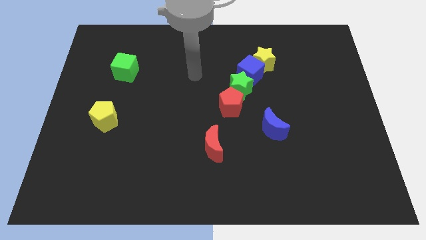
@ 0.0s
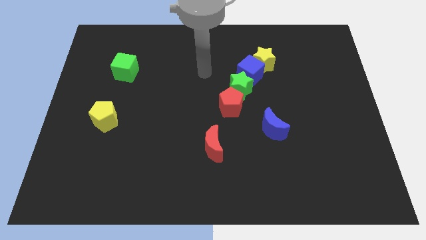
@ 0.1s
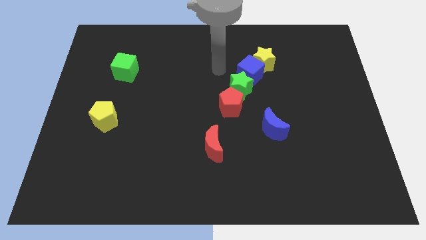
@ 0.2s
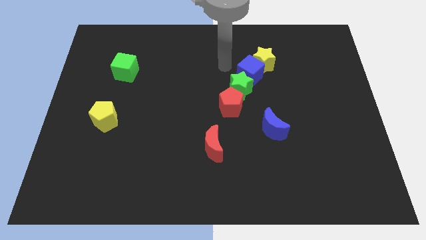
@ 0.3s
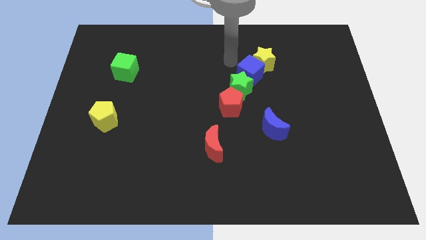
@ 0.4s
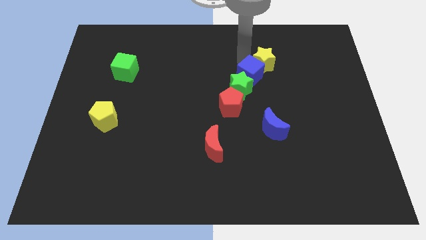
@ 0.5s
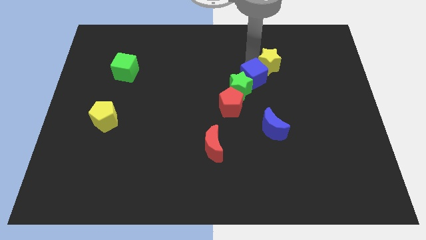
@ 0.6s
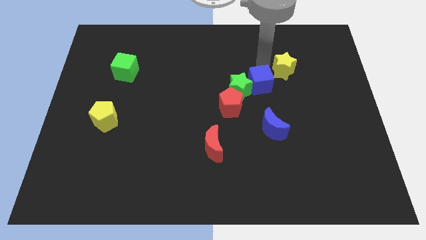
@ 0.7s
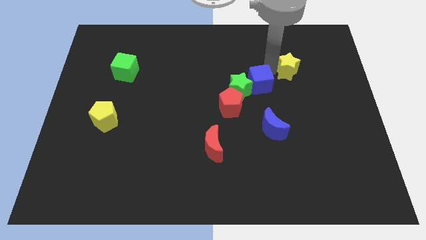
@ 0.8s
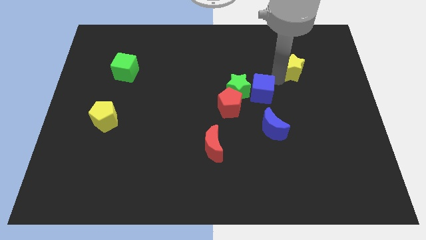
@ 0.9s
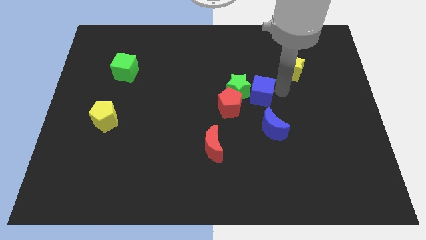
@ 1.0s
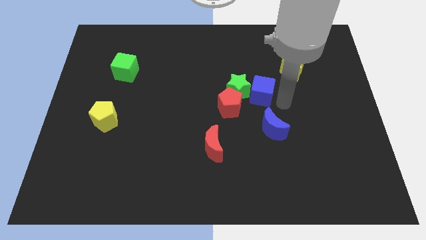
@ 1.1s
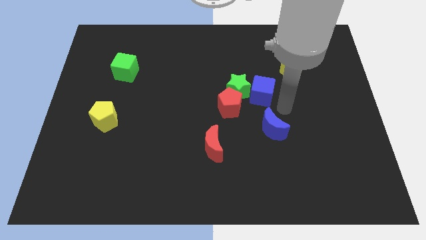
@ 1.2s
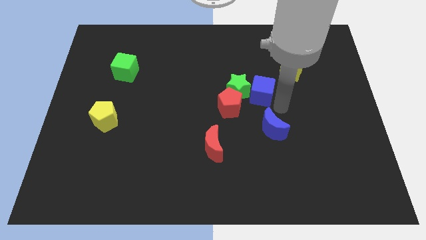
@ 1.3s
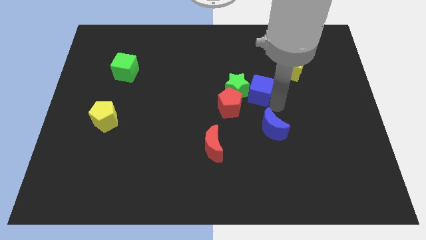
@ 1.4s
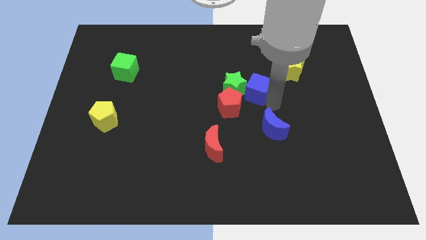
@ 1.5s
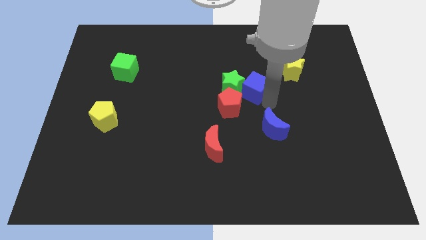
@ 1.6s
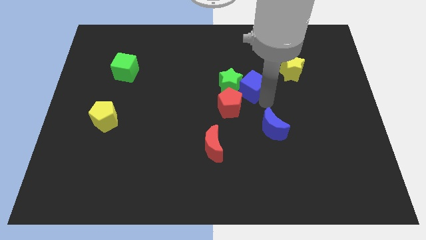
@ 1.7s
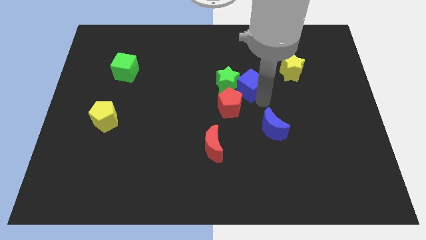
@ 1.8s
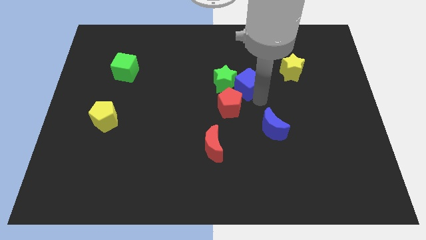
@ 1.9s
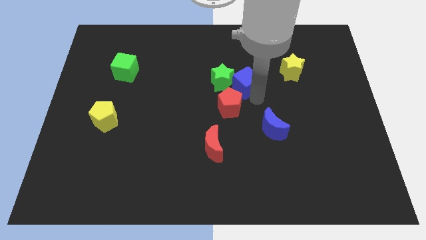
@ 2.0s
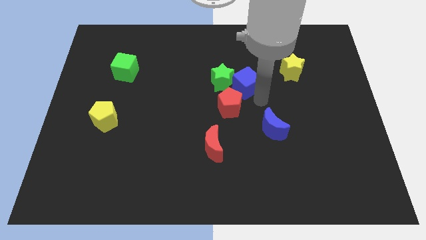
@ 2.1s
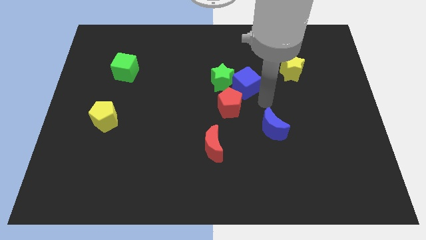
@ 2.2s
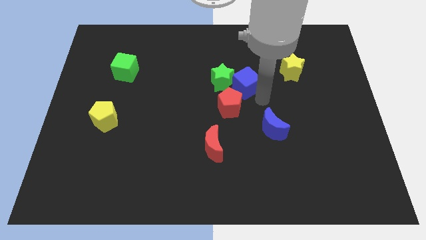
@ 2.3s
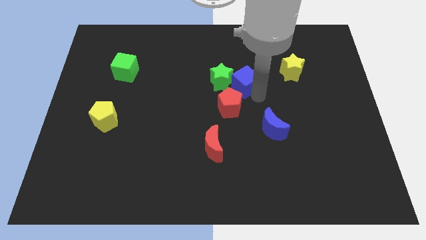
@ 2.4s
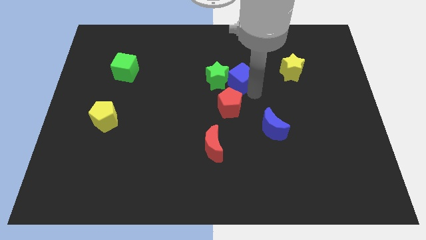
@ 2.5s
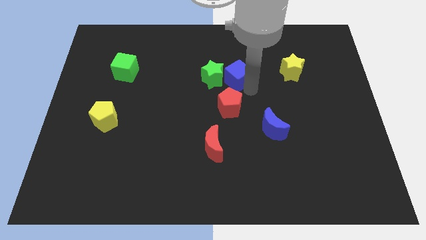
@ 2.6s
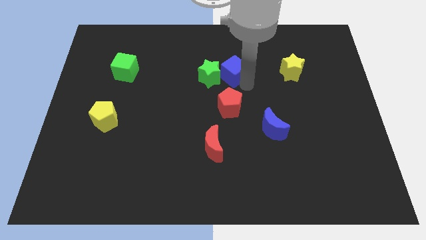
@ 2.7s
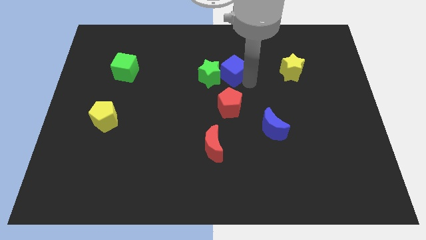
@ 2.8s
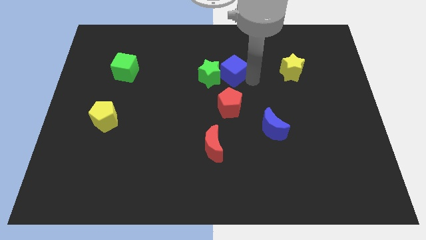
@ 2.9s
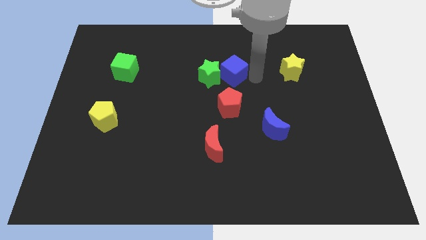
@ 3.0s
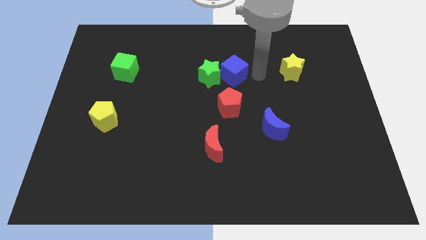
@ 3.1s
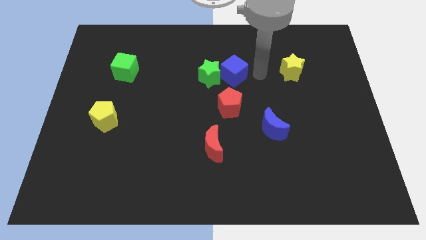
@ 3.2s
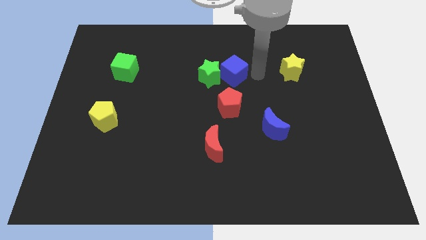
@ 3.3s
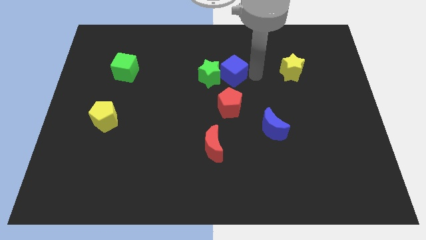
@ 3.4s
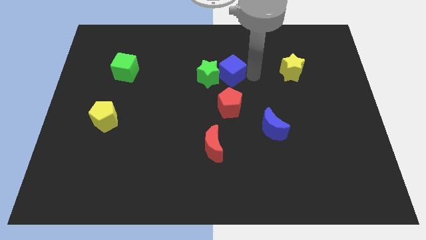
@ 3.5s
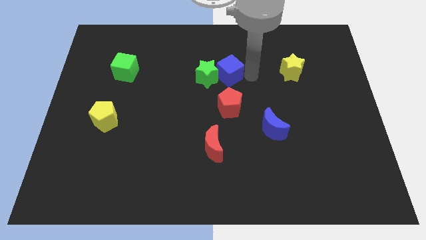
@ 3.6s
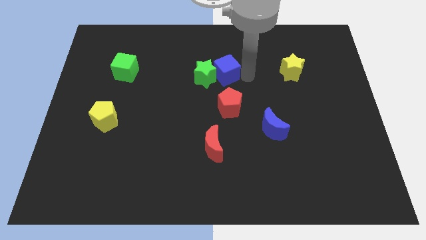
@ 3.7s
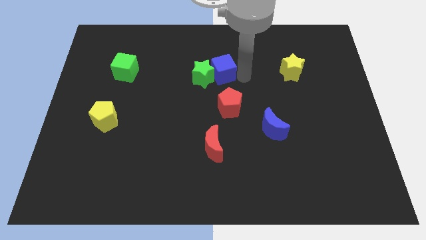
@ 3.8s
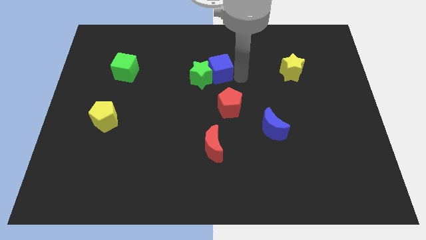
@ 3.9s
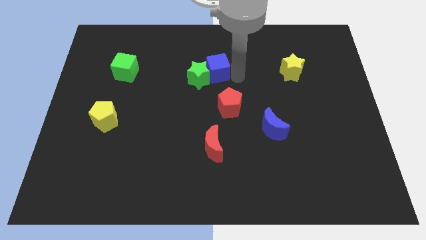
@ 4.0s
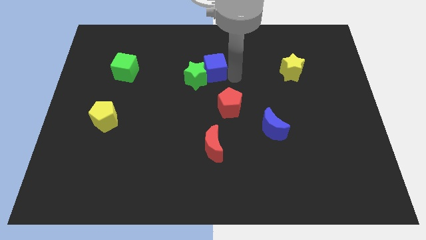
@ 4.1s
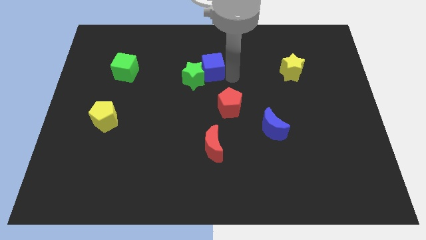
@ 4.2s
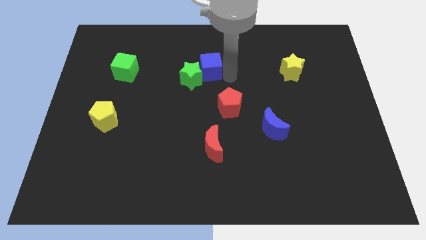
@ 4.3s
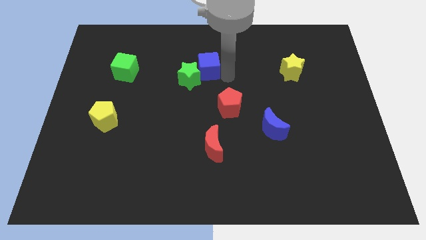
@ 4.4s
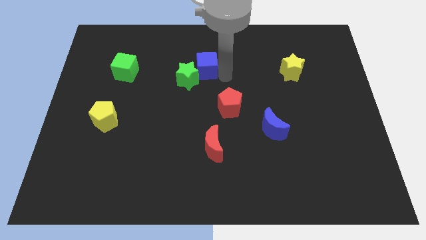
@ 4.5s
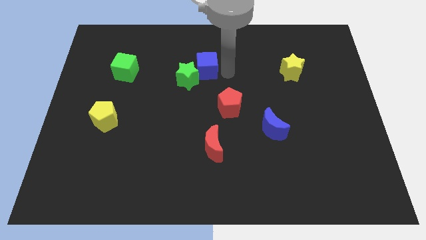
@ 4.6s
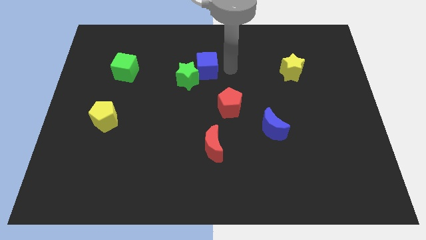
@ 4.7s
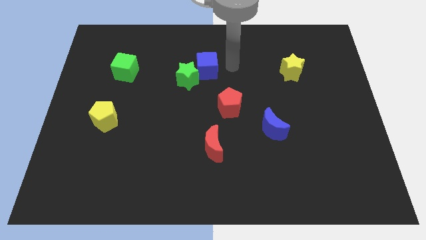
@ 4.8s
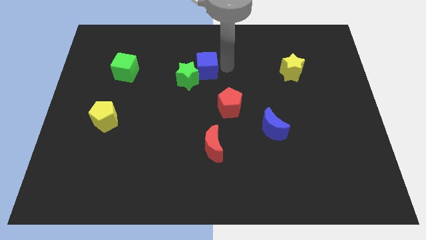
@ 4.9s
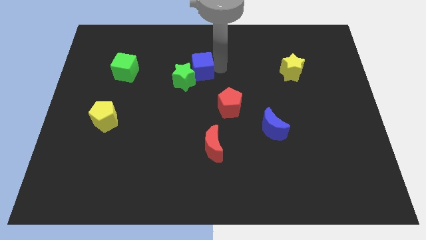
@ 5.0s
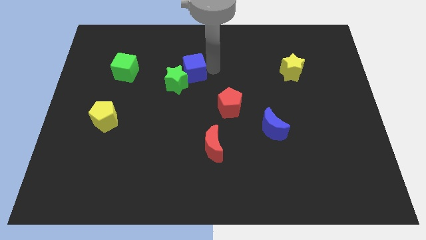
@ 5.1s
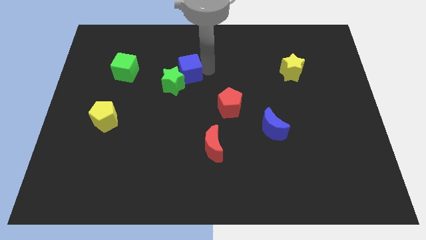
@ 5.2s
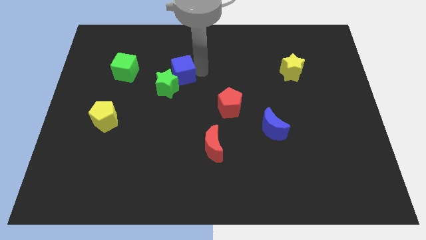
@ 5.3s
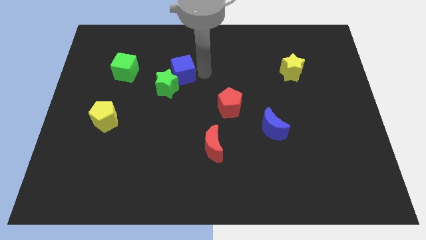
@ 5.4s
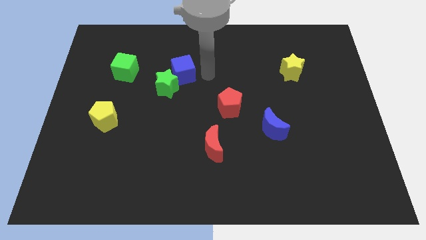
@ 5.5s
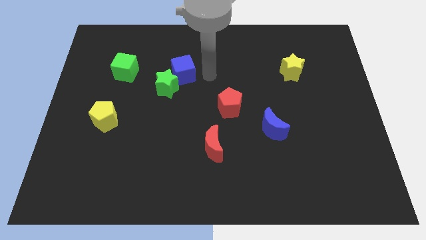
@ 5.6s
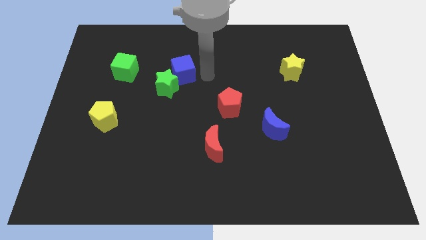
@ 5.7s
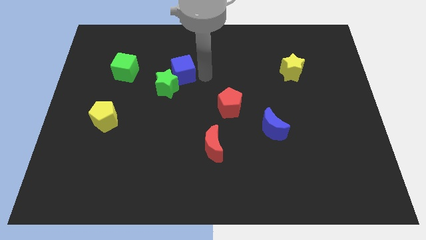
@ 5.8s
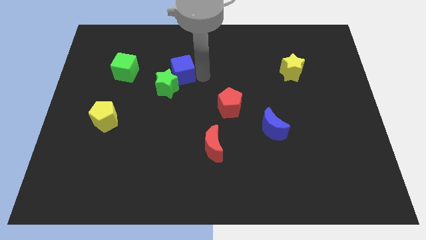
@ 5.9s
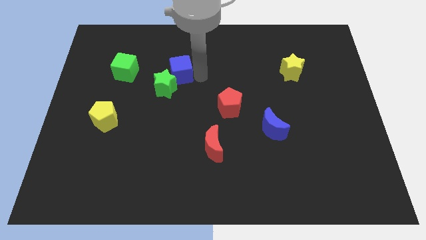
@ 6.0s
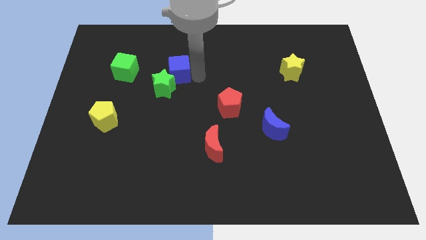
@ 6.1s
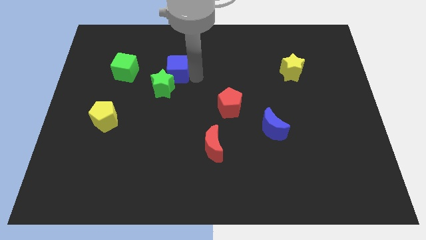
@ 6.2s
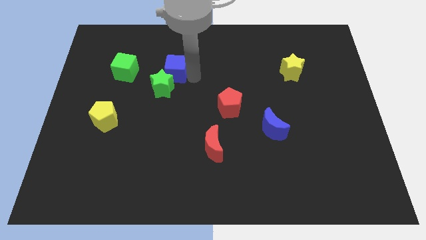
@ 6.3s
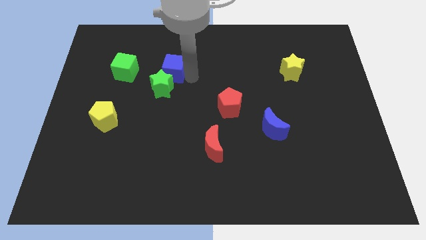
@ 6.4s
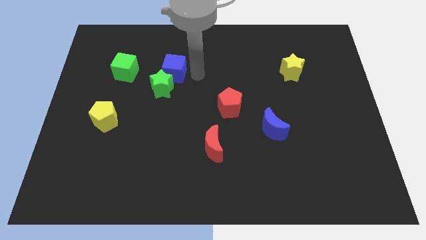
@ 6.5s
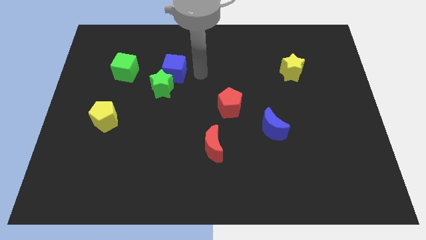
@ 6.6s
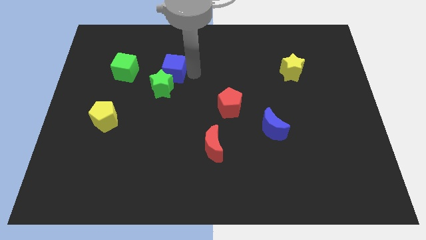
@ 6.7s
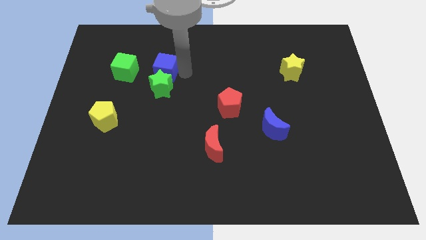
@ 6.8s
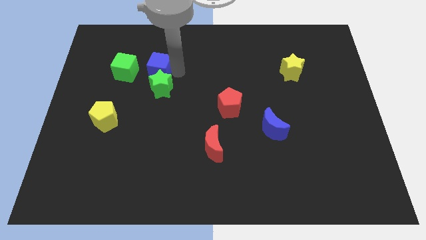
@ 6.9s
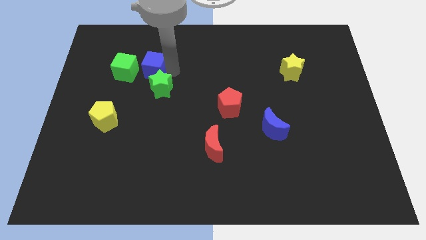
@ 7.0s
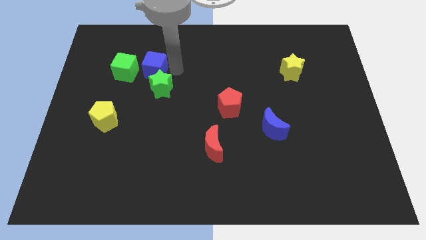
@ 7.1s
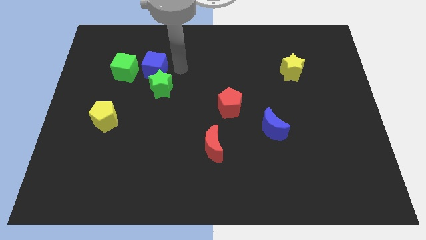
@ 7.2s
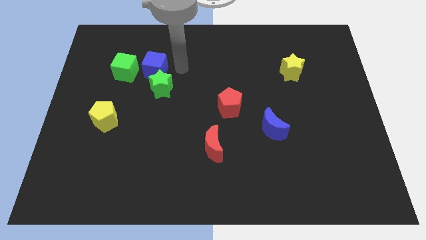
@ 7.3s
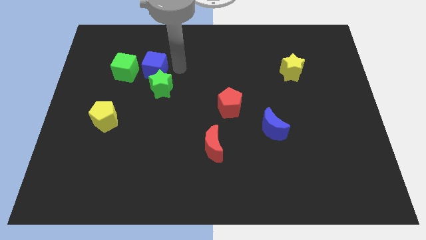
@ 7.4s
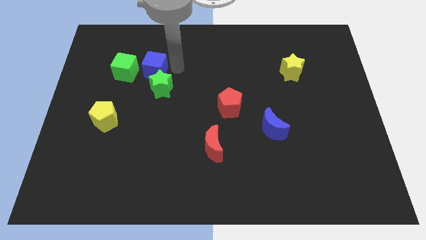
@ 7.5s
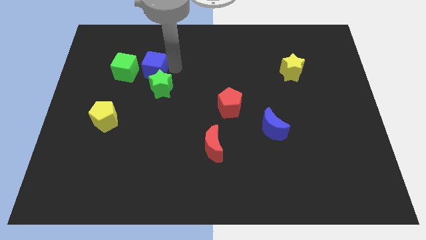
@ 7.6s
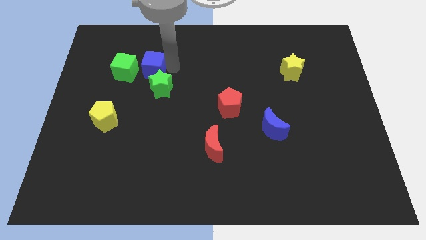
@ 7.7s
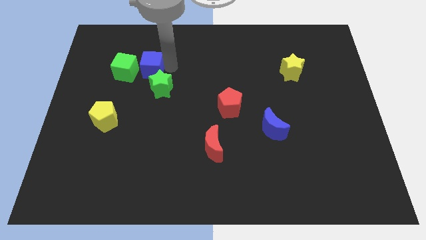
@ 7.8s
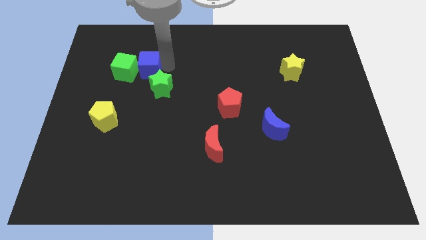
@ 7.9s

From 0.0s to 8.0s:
move the blue cube close to the green cube
